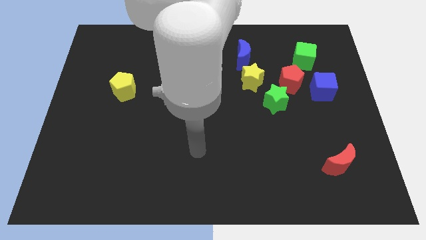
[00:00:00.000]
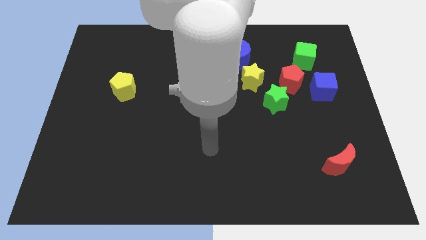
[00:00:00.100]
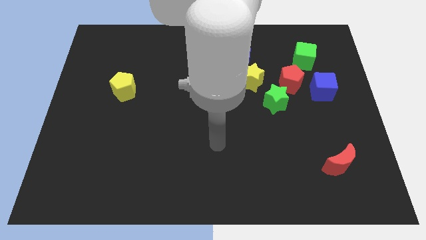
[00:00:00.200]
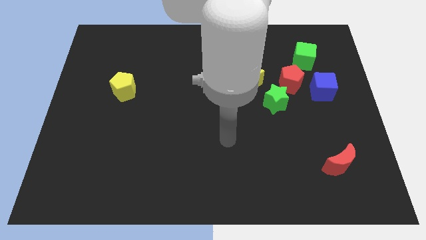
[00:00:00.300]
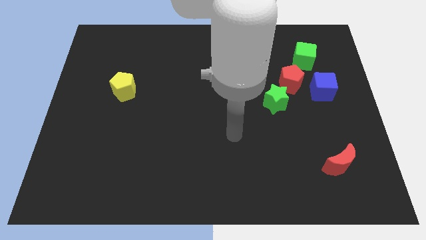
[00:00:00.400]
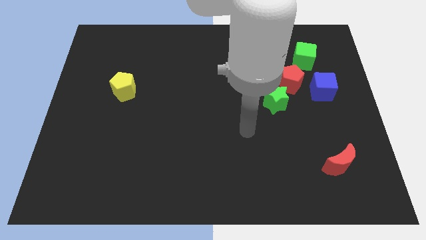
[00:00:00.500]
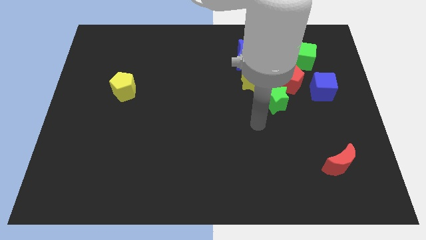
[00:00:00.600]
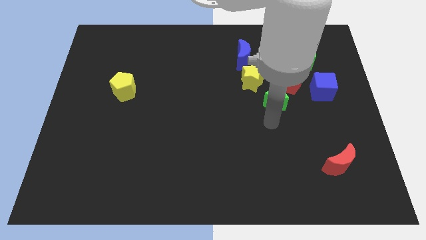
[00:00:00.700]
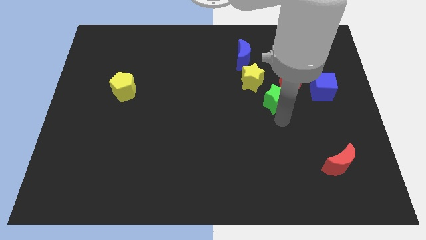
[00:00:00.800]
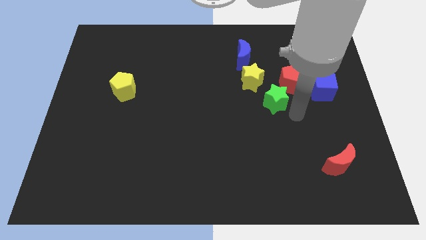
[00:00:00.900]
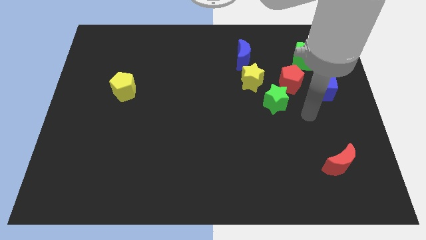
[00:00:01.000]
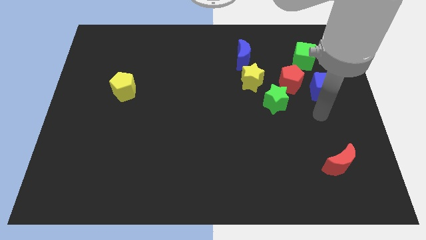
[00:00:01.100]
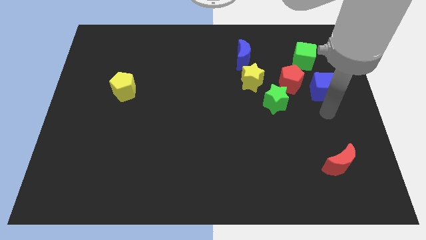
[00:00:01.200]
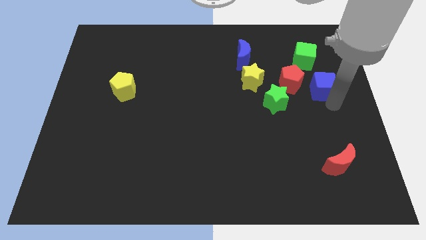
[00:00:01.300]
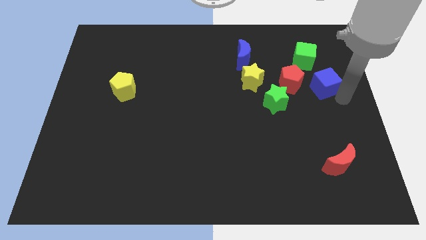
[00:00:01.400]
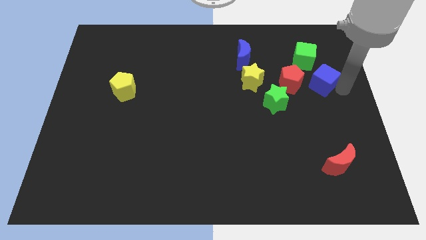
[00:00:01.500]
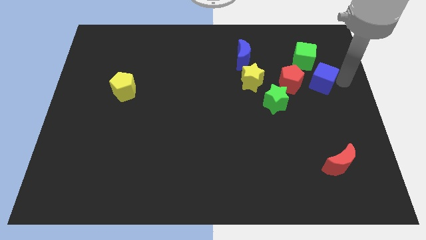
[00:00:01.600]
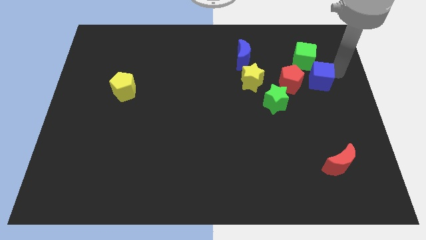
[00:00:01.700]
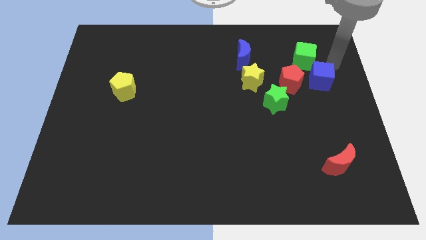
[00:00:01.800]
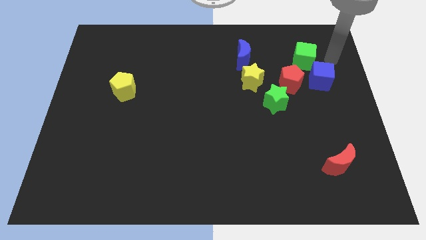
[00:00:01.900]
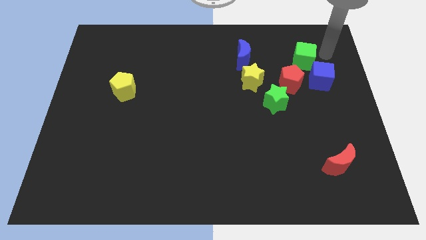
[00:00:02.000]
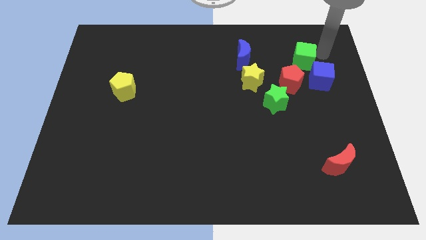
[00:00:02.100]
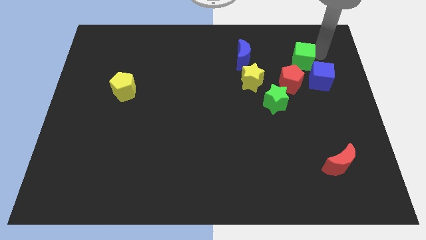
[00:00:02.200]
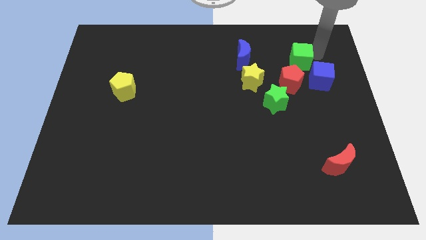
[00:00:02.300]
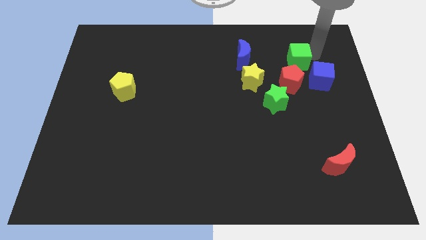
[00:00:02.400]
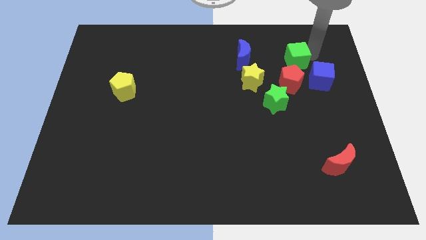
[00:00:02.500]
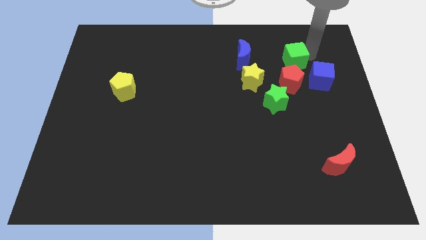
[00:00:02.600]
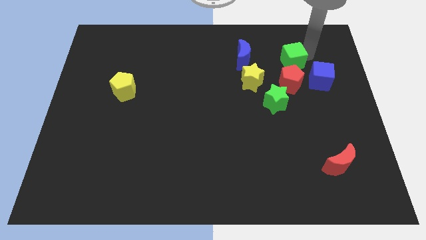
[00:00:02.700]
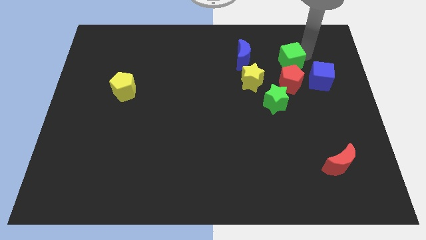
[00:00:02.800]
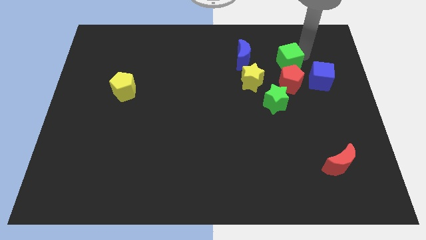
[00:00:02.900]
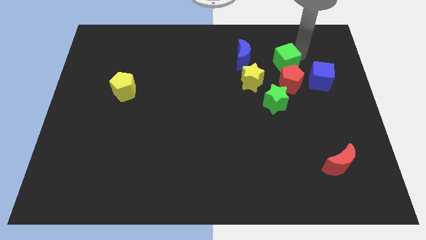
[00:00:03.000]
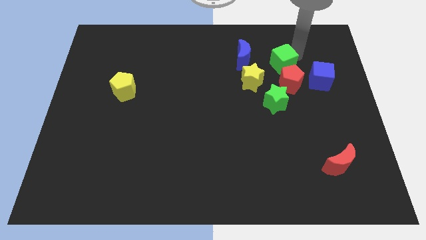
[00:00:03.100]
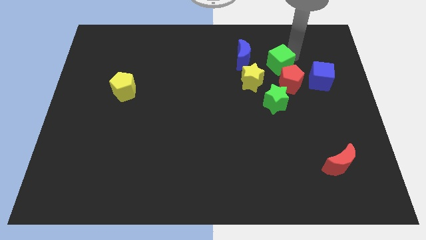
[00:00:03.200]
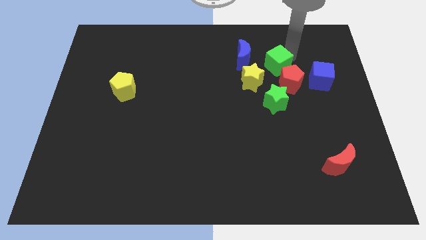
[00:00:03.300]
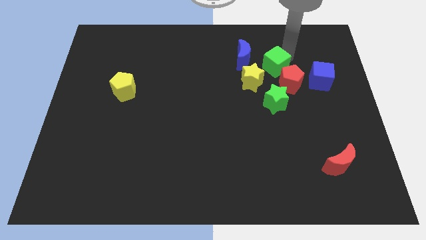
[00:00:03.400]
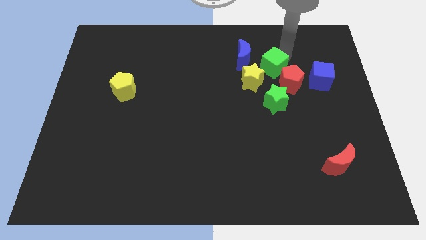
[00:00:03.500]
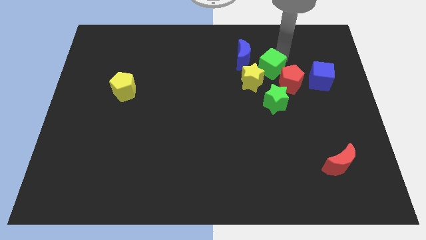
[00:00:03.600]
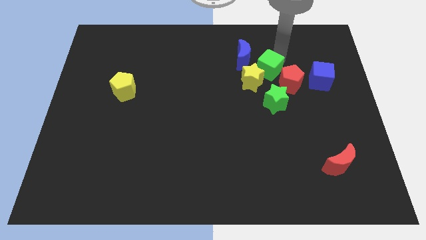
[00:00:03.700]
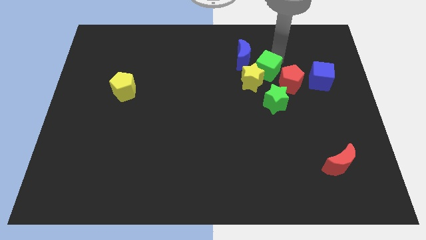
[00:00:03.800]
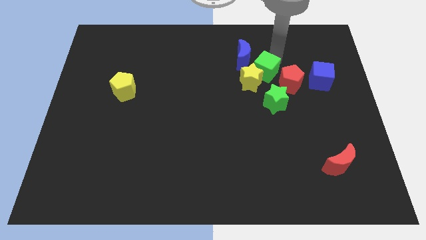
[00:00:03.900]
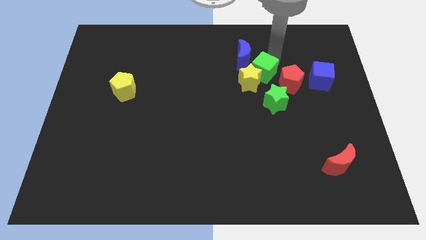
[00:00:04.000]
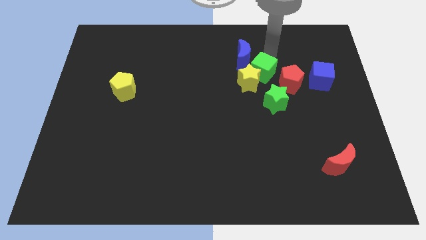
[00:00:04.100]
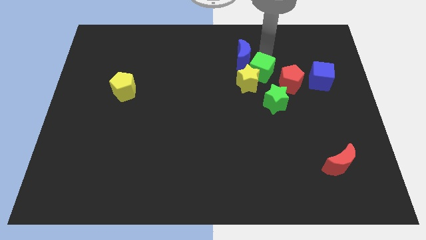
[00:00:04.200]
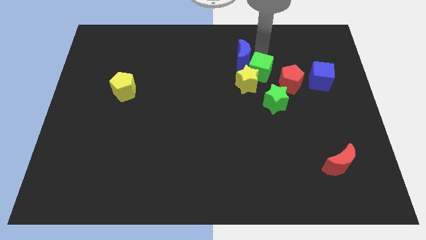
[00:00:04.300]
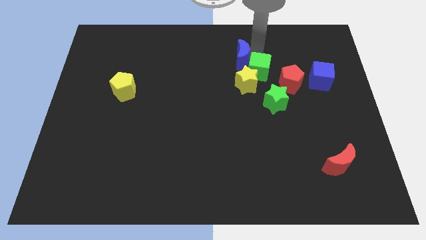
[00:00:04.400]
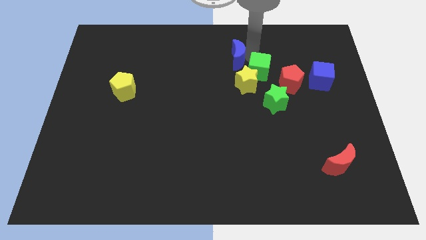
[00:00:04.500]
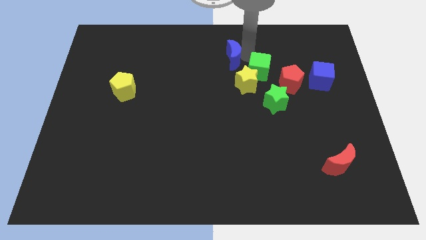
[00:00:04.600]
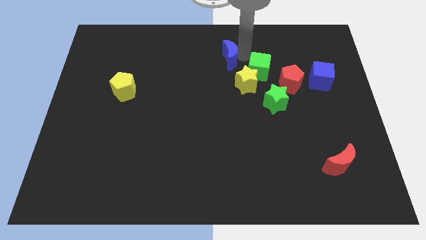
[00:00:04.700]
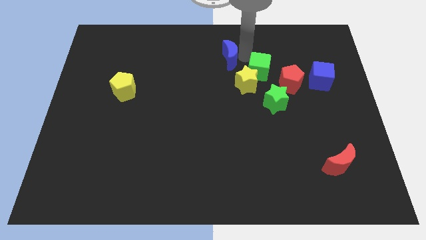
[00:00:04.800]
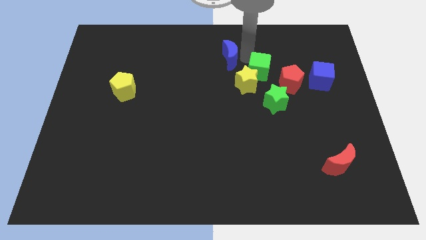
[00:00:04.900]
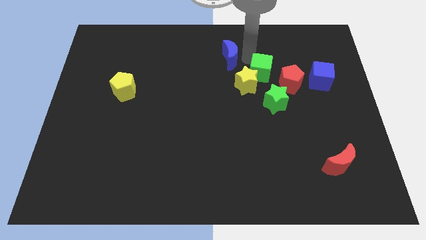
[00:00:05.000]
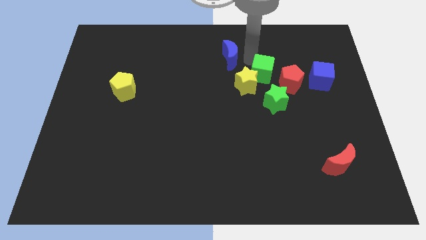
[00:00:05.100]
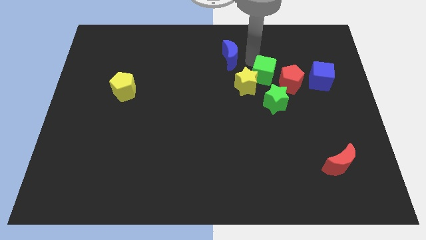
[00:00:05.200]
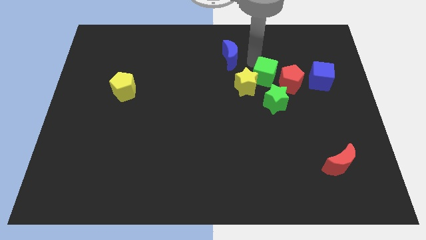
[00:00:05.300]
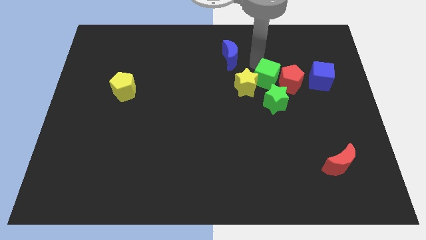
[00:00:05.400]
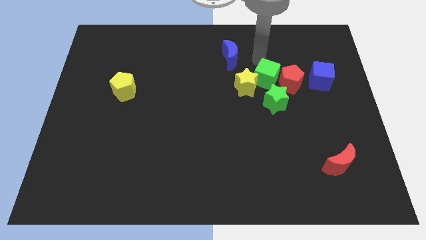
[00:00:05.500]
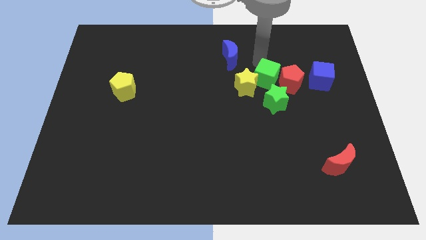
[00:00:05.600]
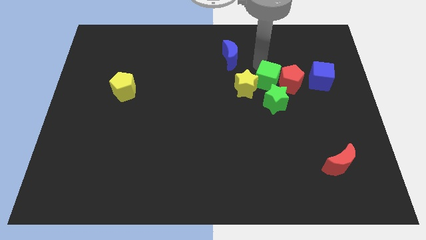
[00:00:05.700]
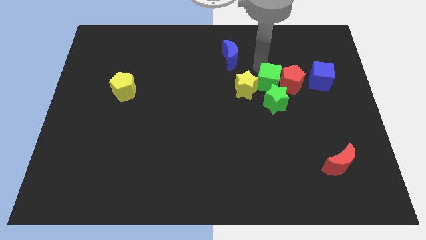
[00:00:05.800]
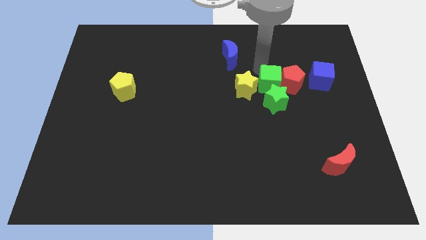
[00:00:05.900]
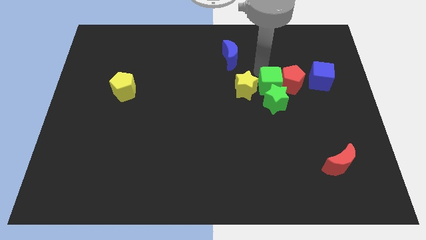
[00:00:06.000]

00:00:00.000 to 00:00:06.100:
slide the green cube to the green star
